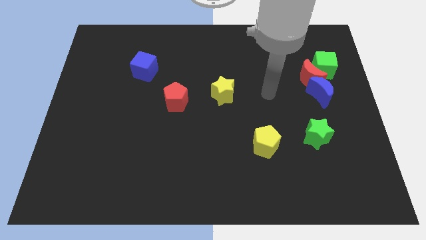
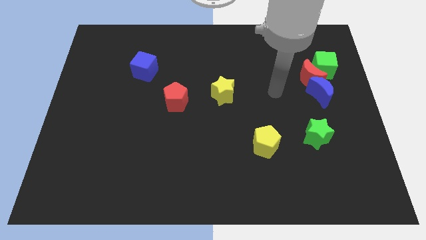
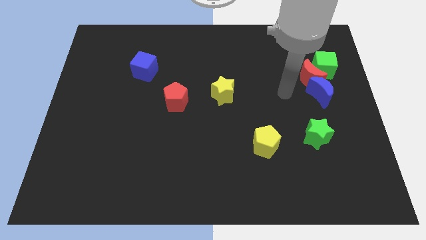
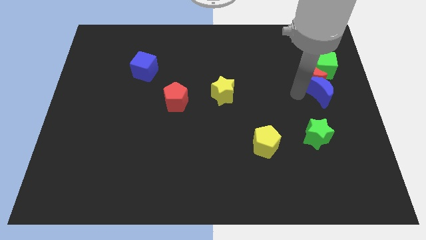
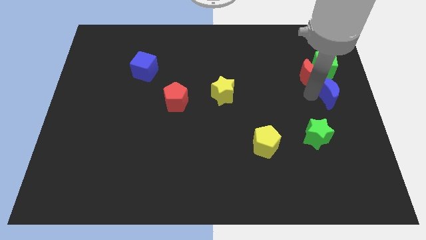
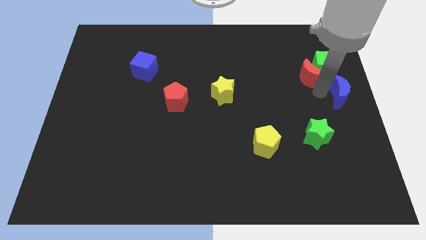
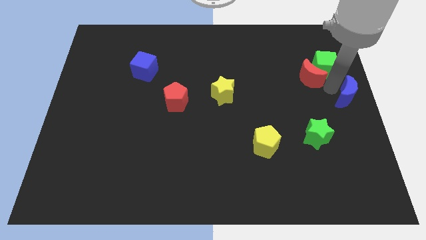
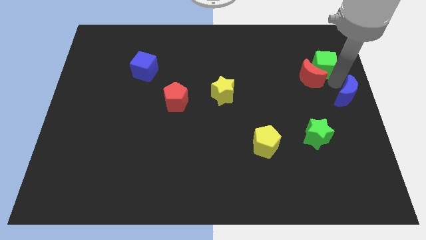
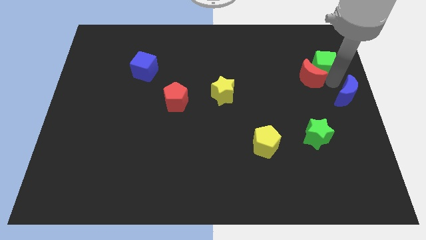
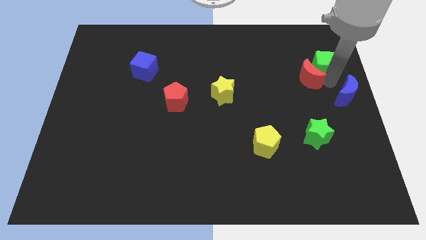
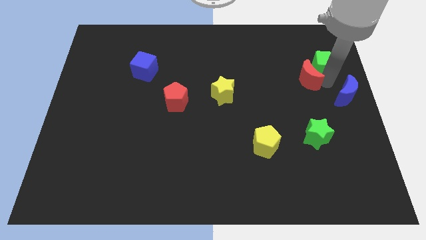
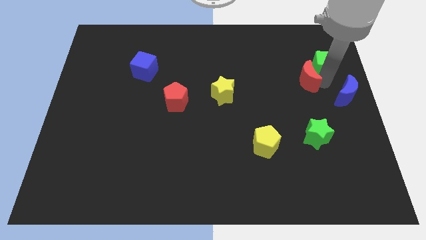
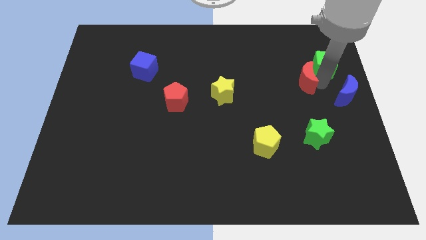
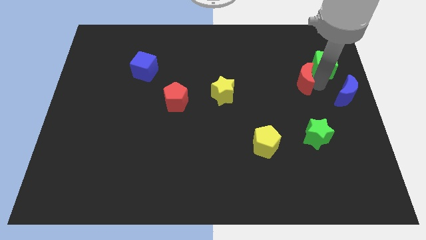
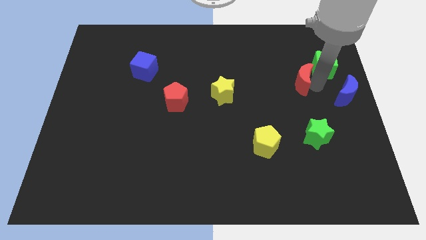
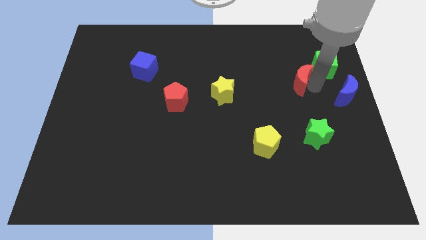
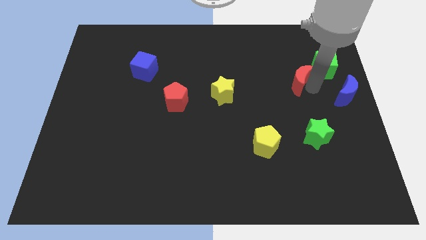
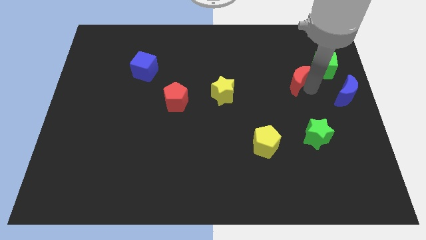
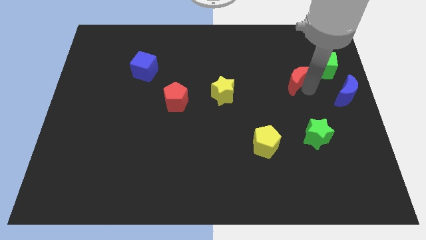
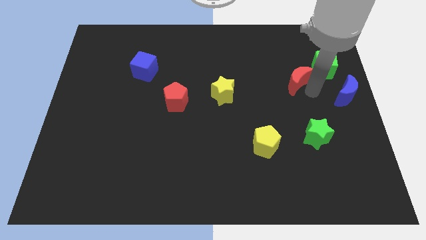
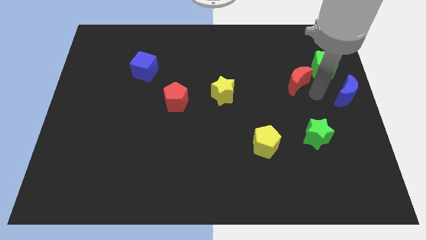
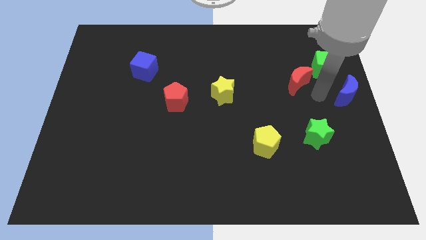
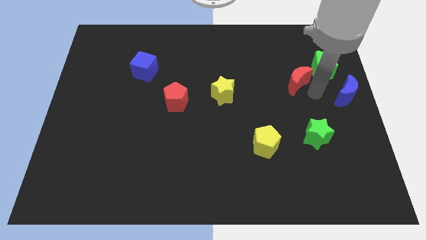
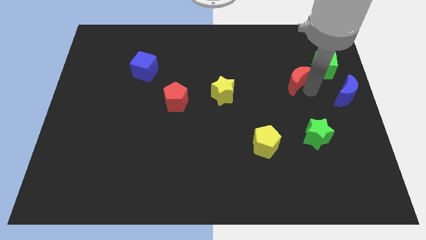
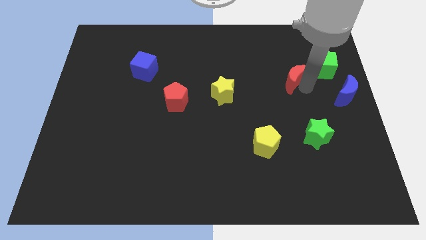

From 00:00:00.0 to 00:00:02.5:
separate the red moon from the blue moon and green cube

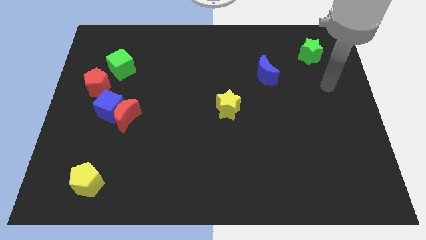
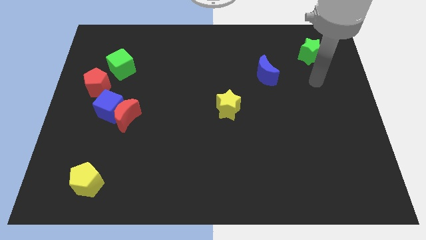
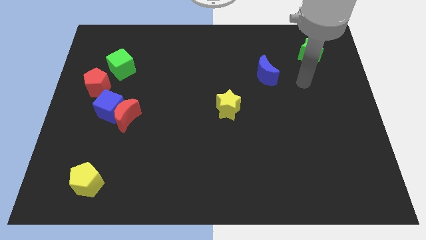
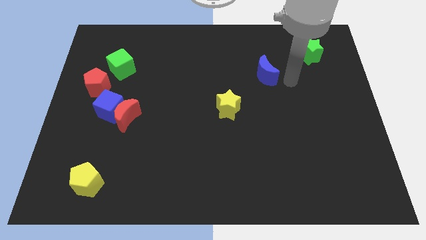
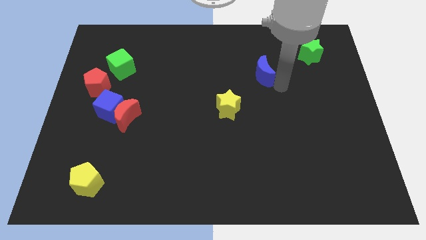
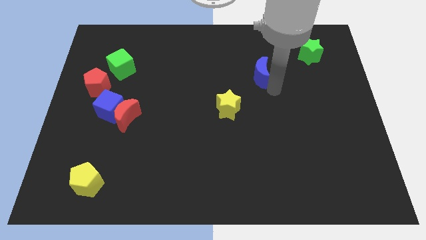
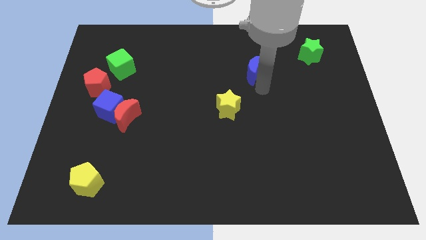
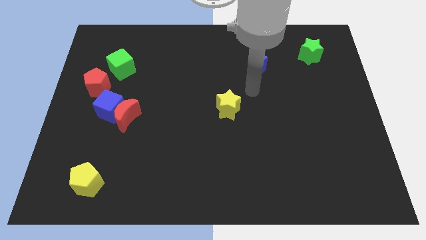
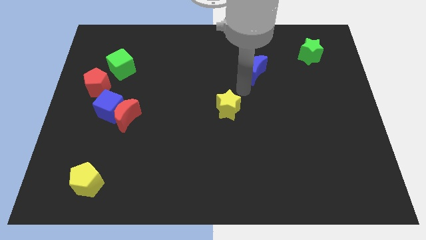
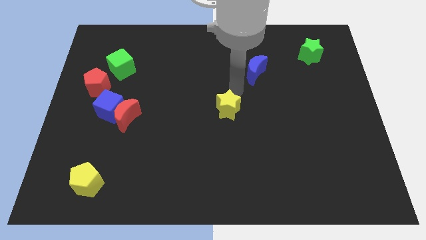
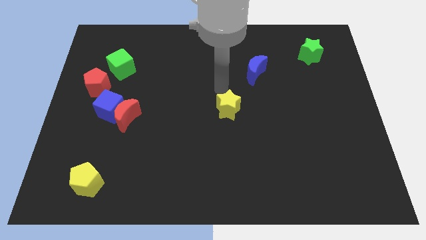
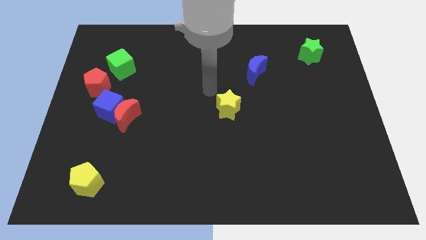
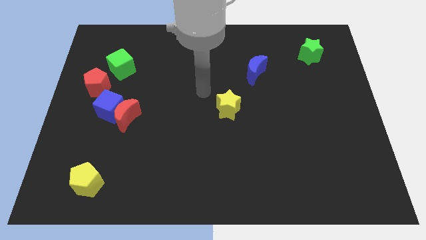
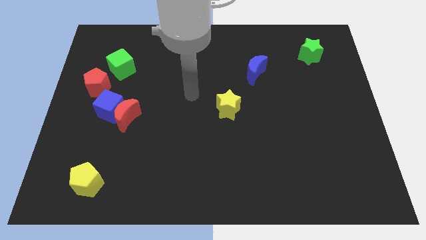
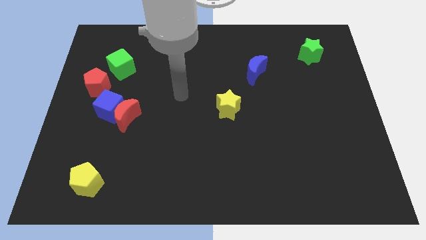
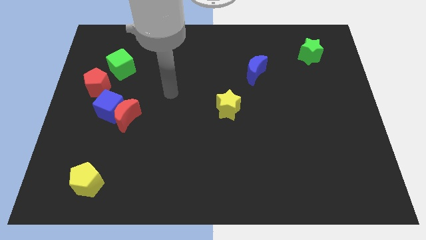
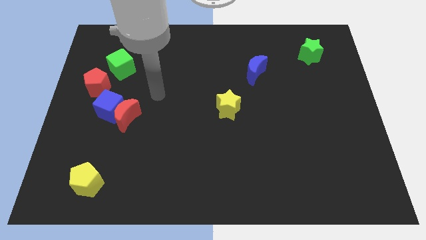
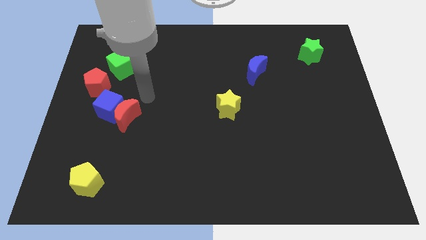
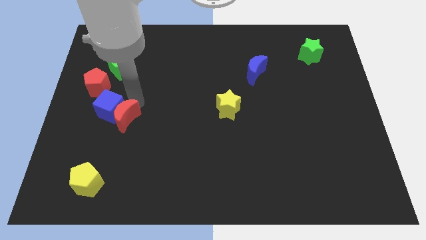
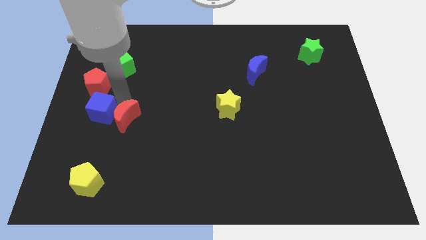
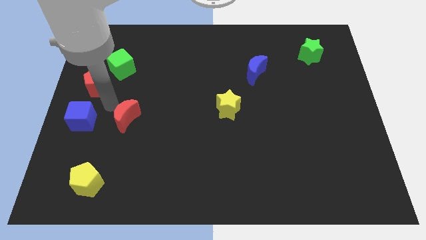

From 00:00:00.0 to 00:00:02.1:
move the red moon away from the blue cube

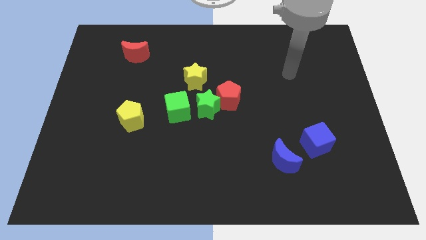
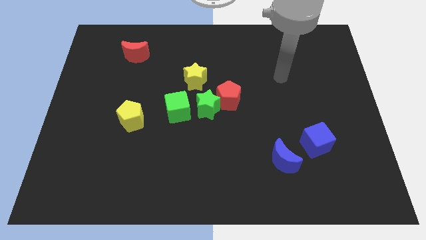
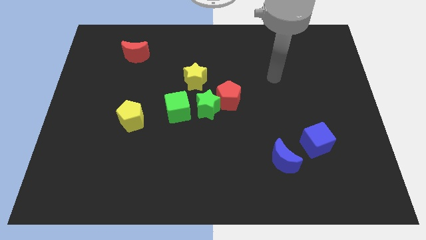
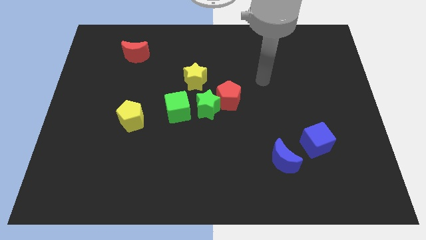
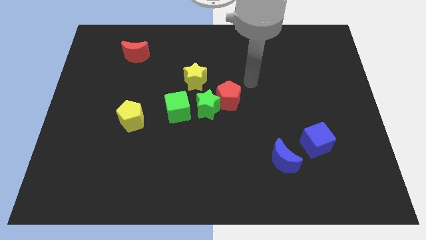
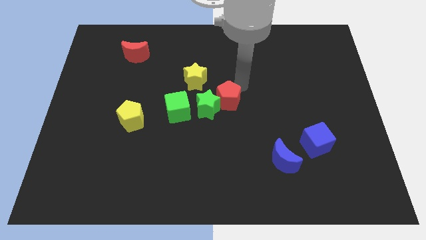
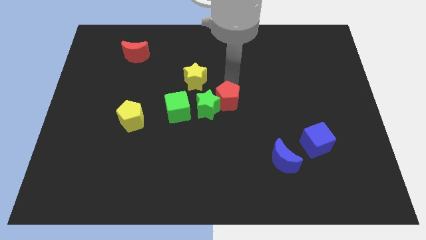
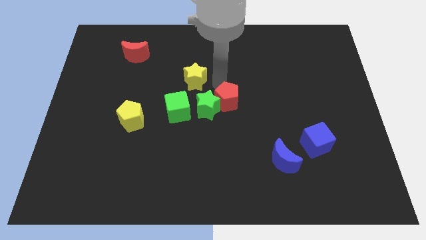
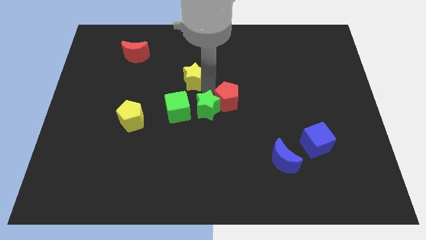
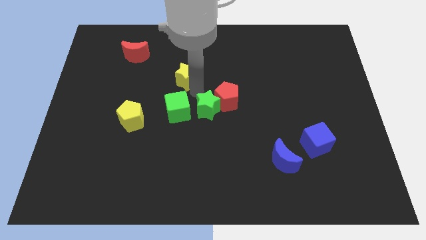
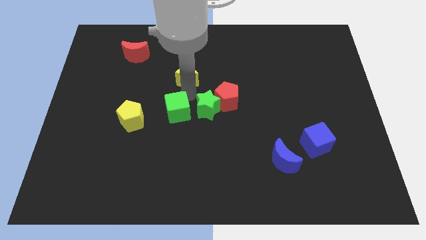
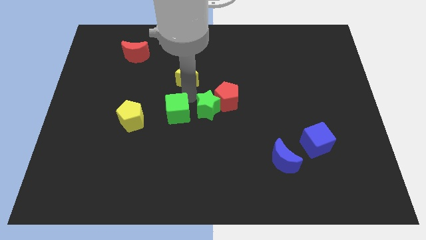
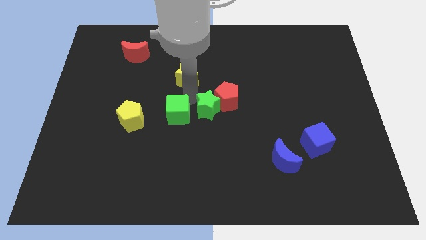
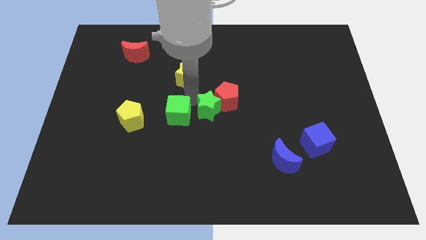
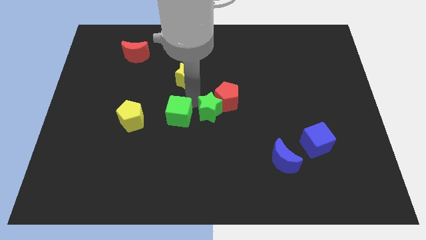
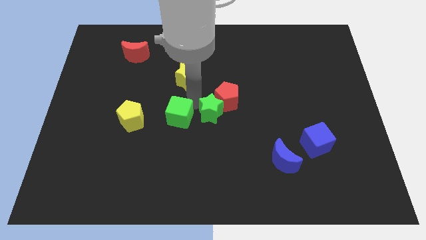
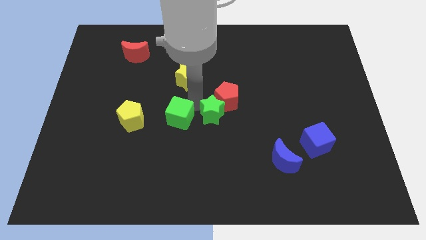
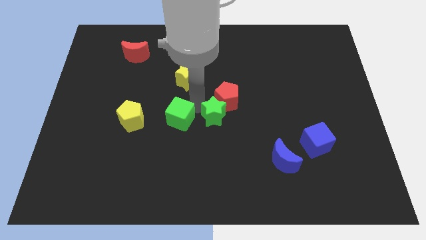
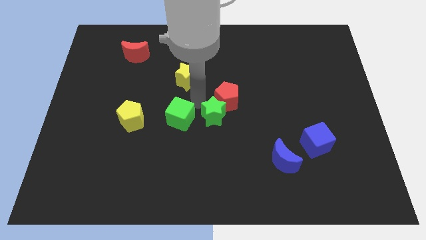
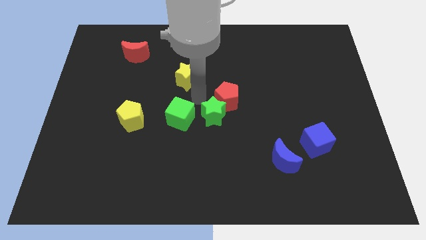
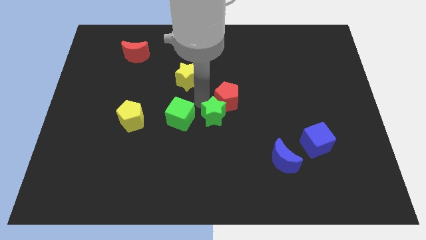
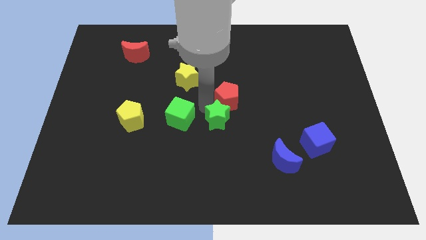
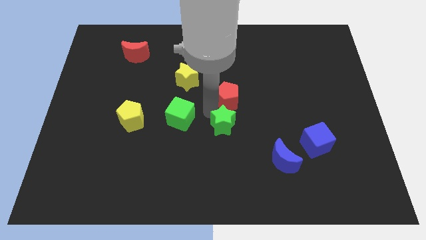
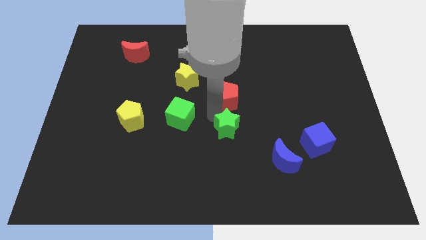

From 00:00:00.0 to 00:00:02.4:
move the green star away from the red pentagon, green cube, and yellow star

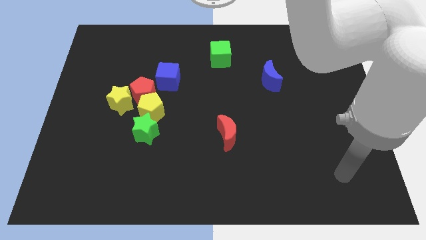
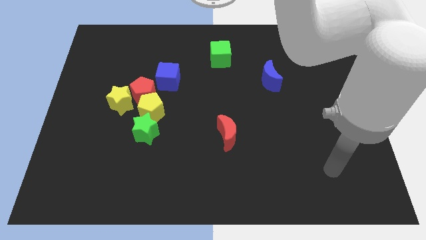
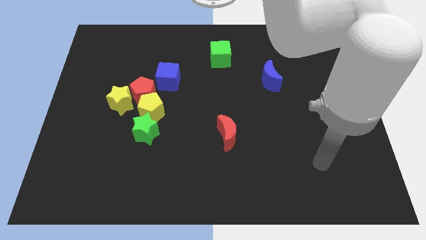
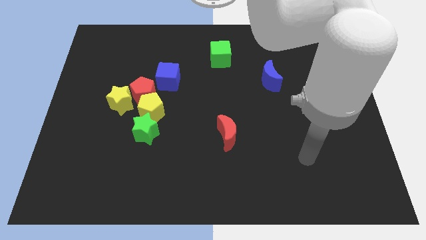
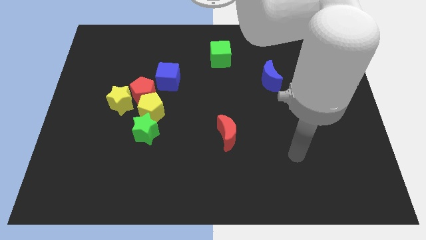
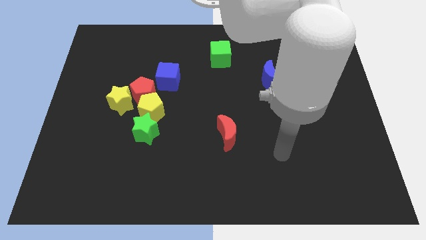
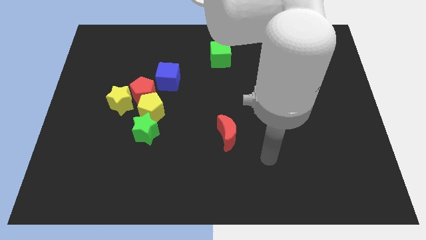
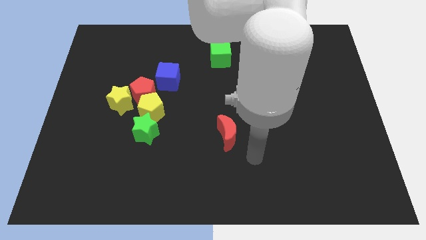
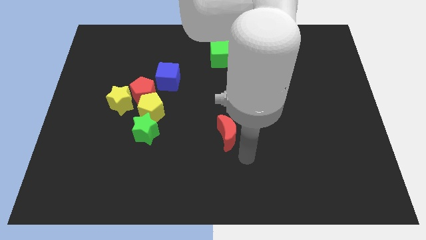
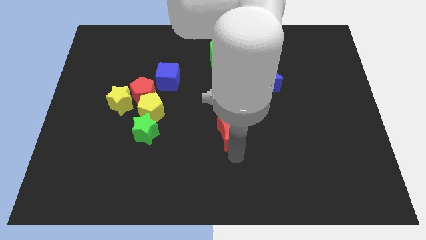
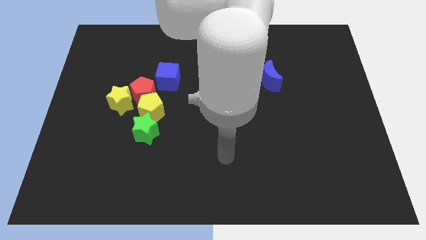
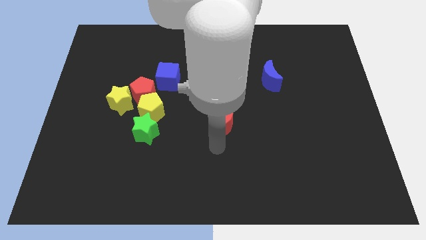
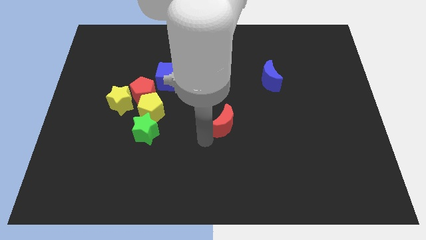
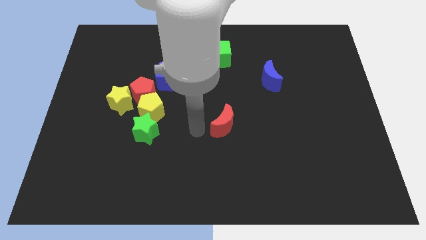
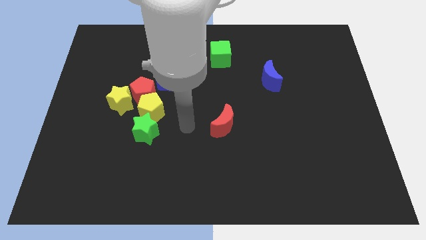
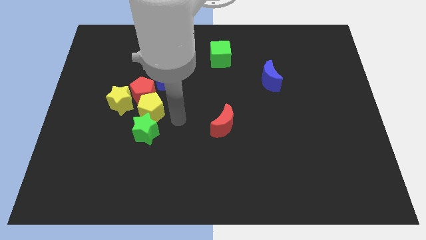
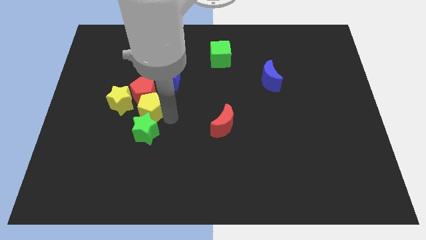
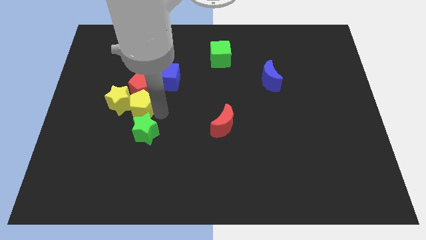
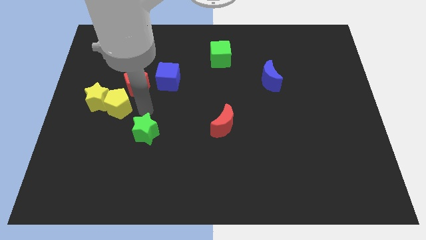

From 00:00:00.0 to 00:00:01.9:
separate the green star from the yellow pentagon

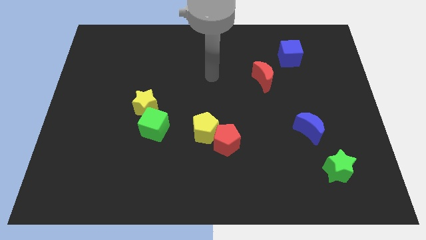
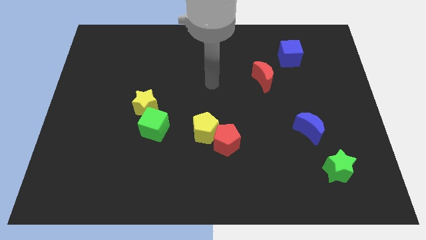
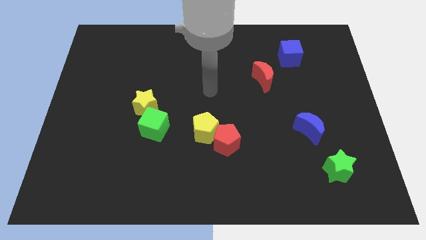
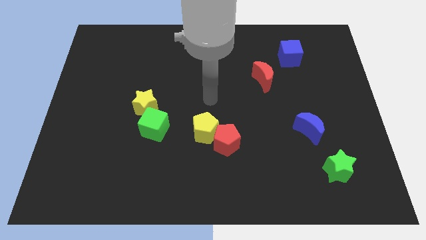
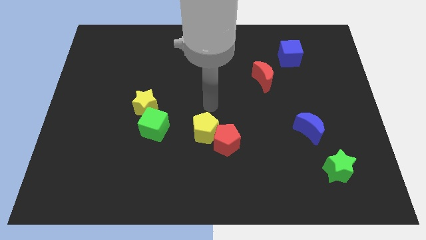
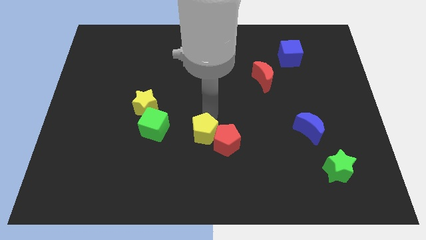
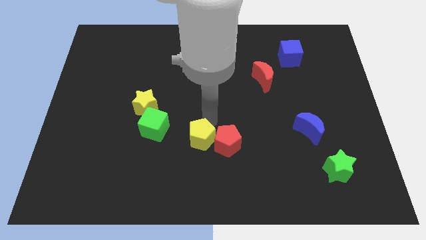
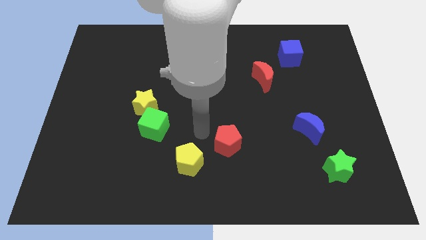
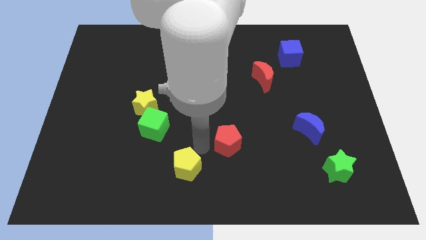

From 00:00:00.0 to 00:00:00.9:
move the red pentagon away from the yellow pentagon
